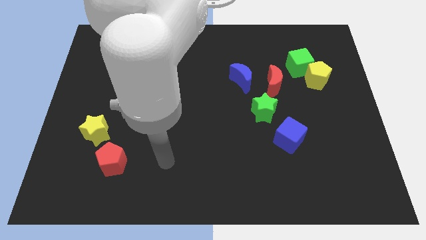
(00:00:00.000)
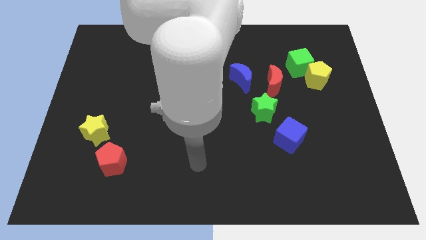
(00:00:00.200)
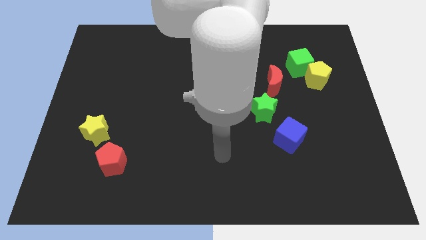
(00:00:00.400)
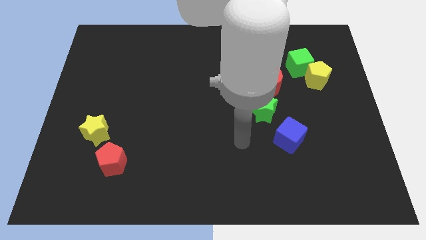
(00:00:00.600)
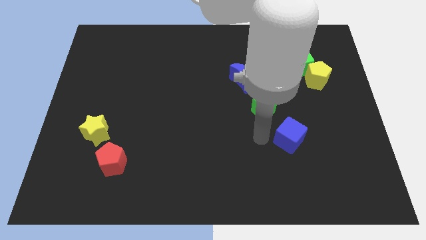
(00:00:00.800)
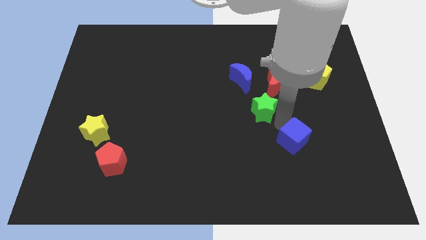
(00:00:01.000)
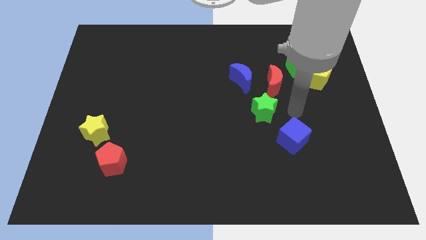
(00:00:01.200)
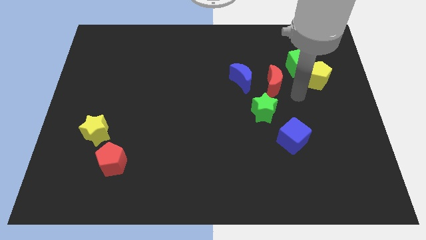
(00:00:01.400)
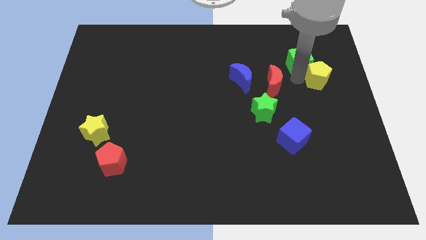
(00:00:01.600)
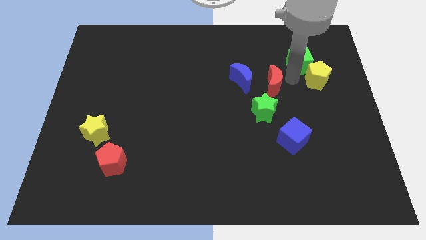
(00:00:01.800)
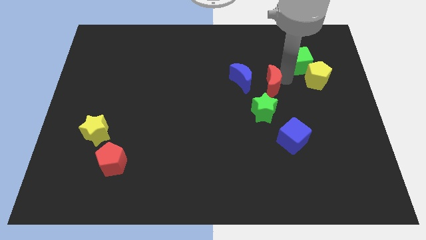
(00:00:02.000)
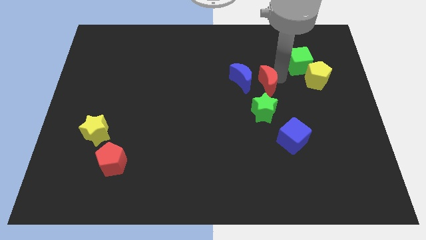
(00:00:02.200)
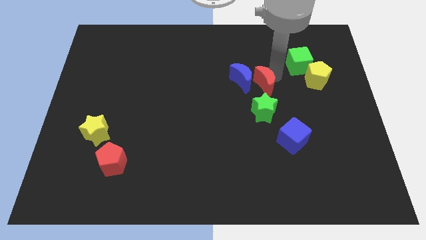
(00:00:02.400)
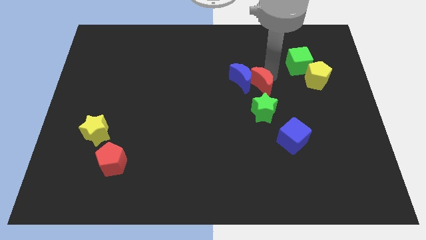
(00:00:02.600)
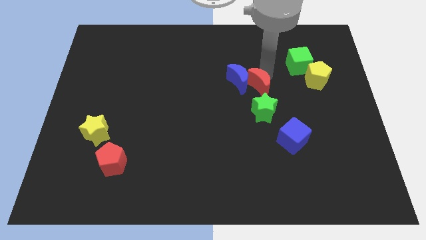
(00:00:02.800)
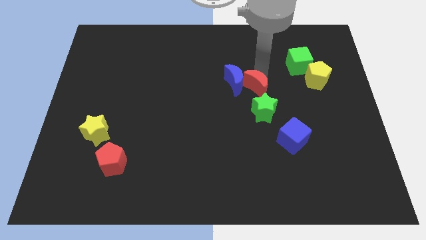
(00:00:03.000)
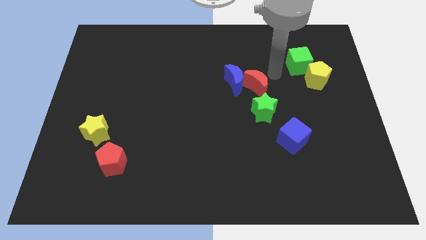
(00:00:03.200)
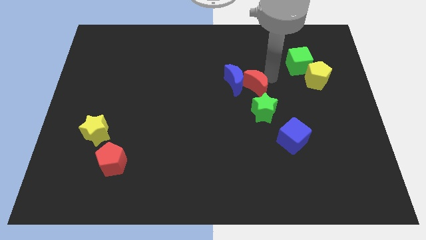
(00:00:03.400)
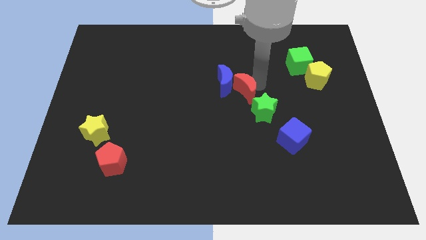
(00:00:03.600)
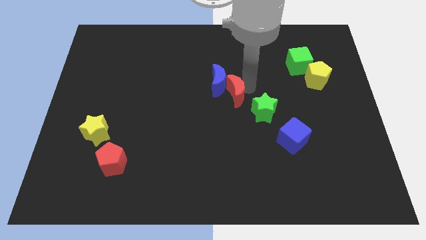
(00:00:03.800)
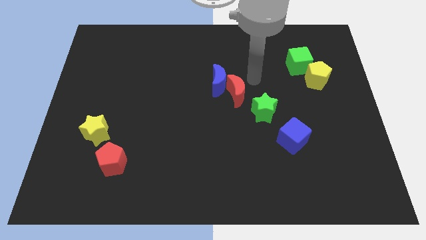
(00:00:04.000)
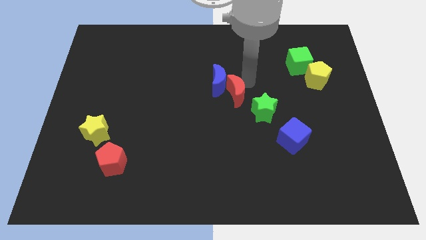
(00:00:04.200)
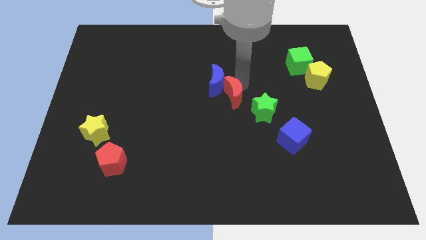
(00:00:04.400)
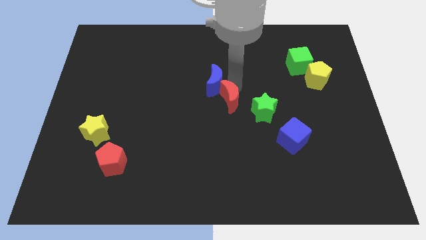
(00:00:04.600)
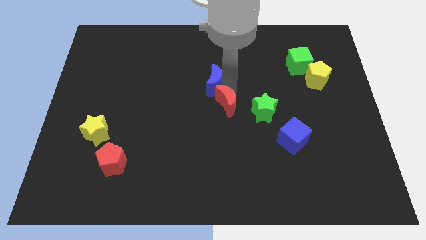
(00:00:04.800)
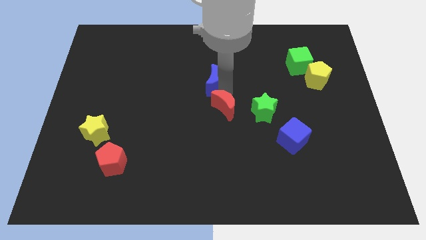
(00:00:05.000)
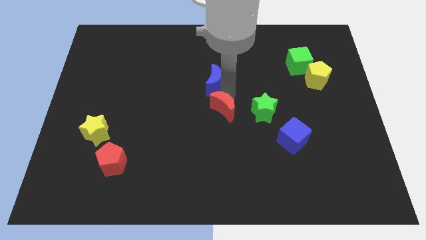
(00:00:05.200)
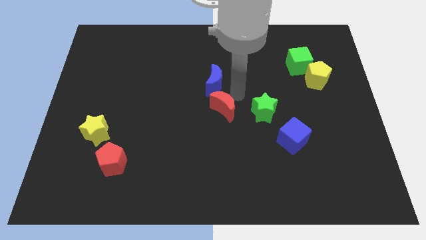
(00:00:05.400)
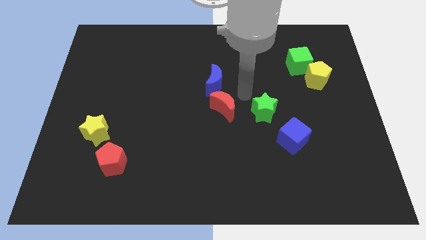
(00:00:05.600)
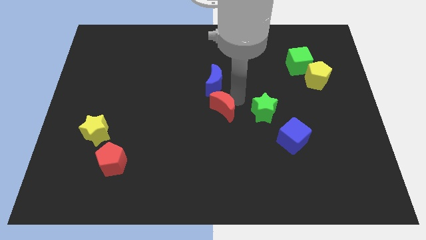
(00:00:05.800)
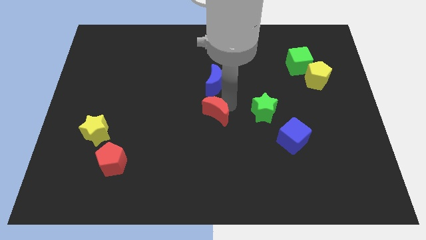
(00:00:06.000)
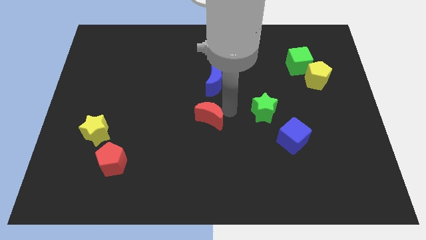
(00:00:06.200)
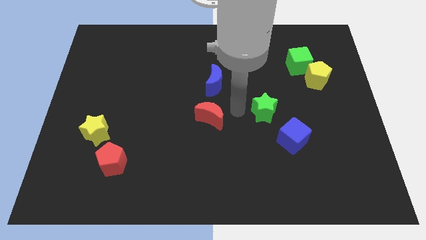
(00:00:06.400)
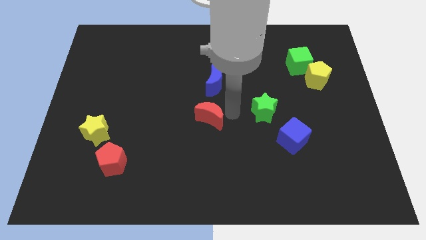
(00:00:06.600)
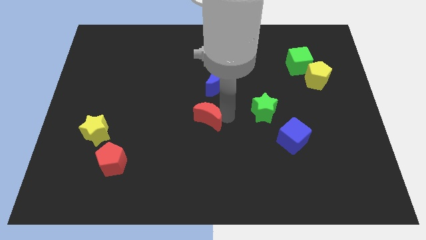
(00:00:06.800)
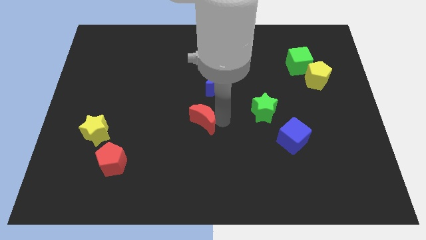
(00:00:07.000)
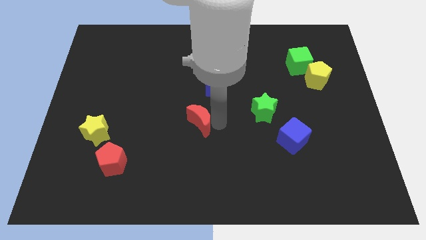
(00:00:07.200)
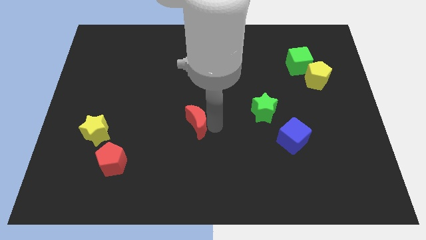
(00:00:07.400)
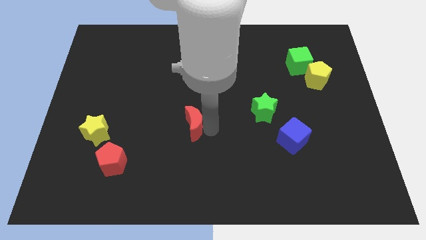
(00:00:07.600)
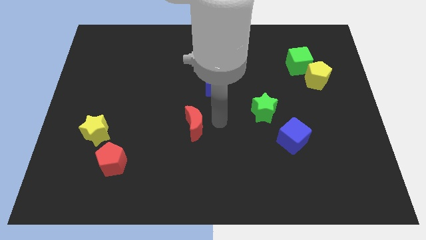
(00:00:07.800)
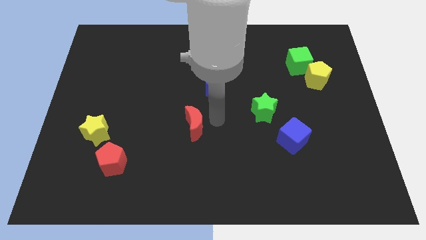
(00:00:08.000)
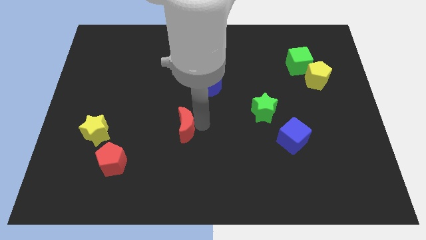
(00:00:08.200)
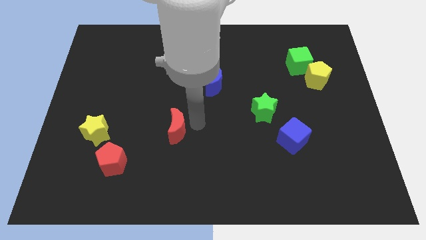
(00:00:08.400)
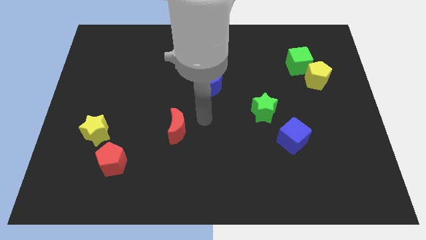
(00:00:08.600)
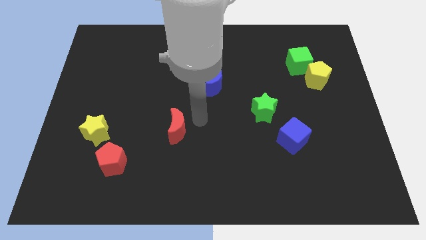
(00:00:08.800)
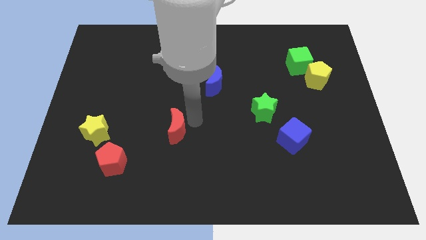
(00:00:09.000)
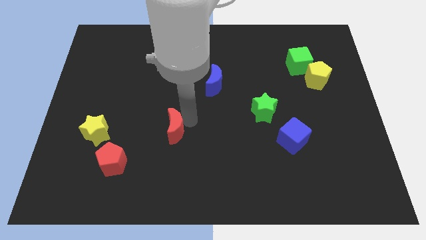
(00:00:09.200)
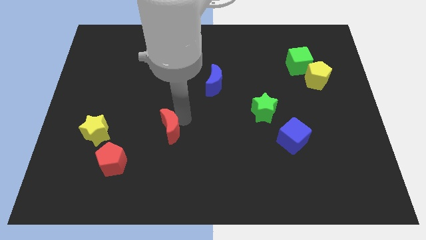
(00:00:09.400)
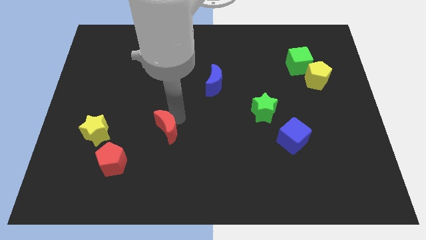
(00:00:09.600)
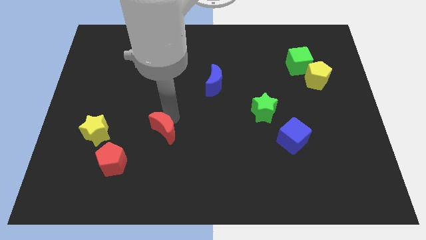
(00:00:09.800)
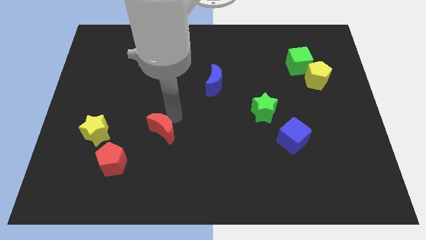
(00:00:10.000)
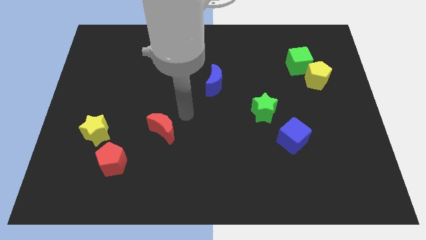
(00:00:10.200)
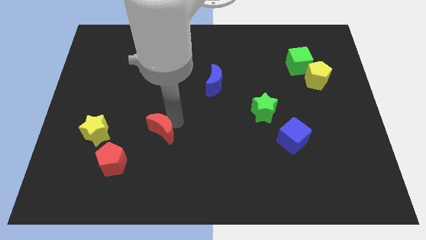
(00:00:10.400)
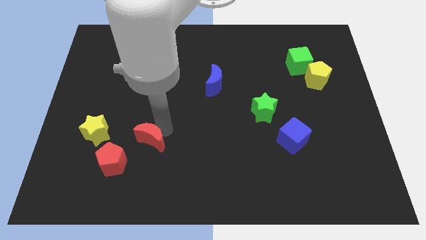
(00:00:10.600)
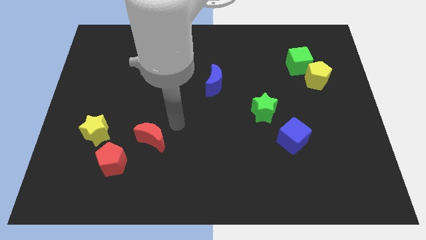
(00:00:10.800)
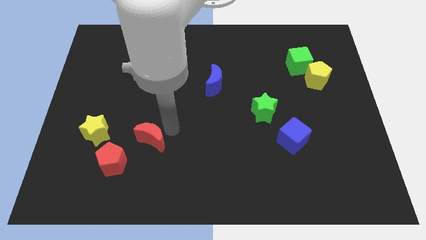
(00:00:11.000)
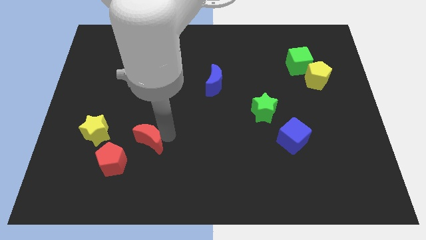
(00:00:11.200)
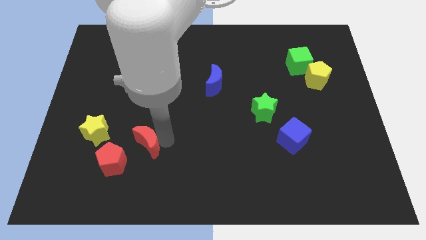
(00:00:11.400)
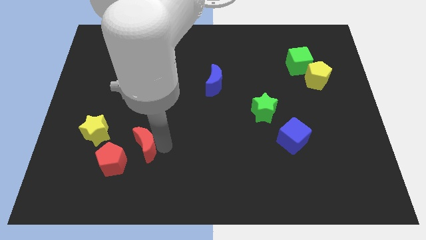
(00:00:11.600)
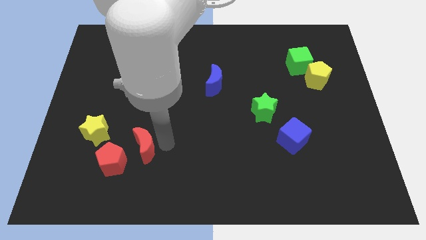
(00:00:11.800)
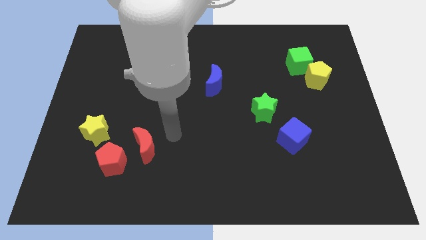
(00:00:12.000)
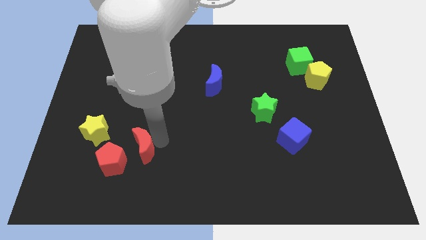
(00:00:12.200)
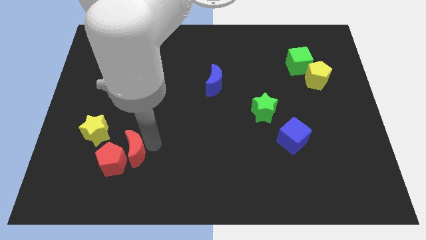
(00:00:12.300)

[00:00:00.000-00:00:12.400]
move the red moon close to the red pentagon
